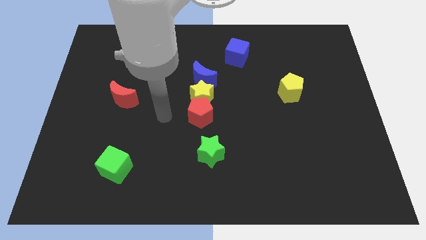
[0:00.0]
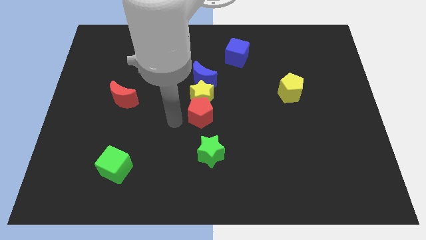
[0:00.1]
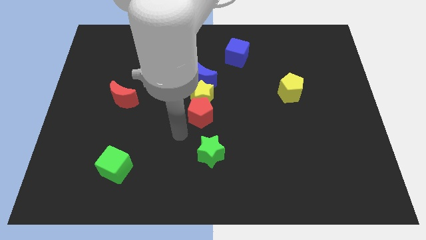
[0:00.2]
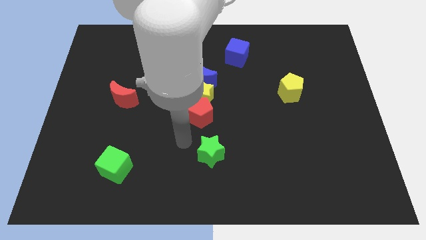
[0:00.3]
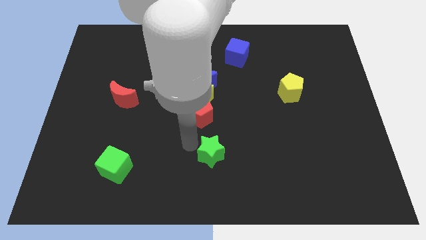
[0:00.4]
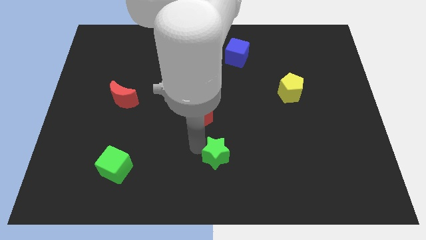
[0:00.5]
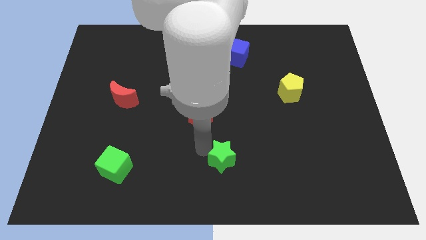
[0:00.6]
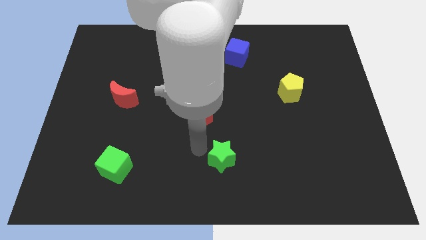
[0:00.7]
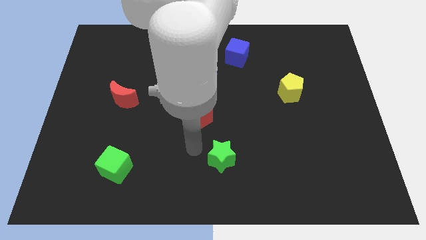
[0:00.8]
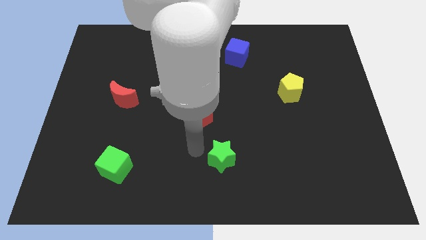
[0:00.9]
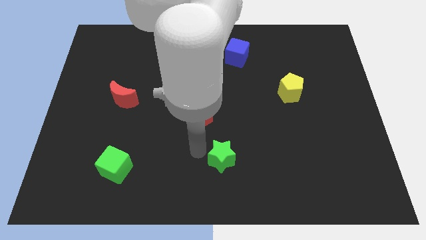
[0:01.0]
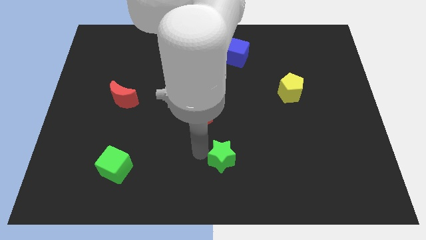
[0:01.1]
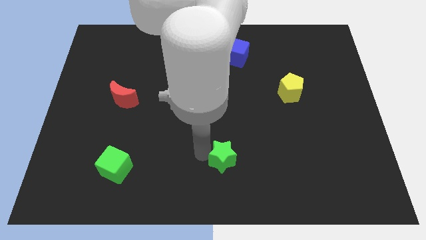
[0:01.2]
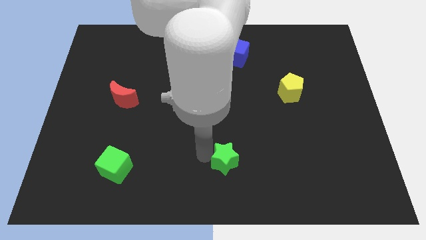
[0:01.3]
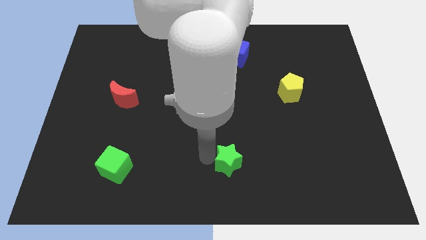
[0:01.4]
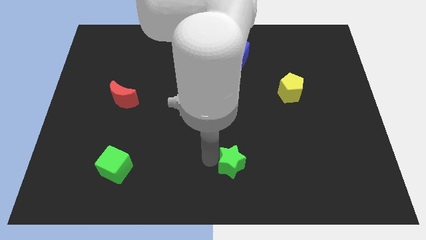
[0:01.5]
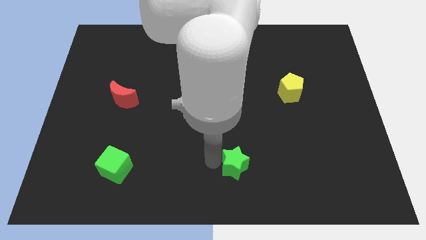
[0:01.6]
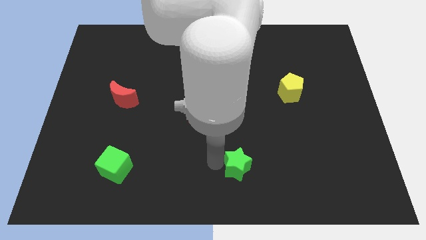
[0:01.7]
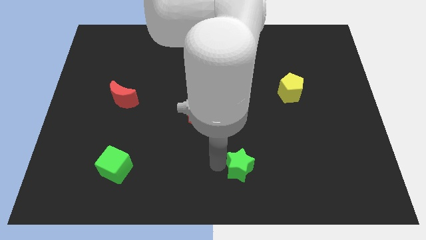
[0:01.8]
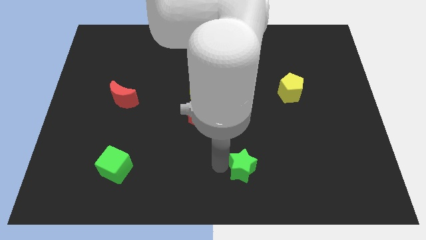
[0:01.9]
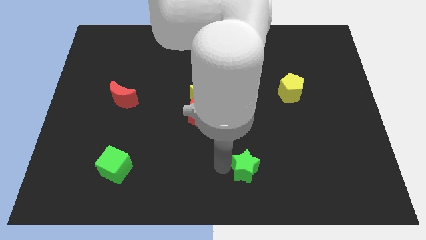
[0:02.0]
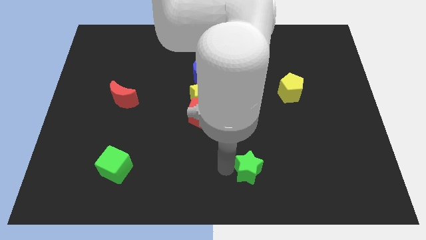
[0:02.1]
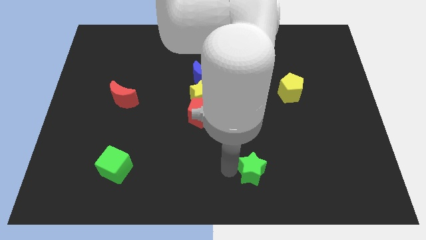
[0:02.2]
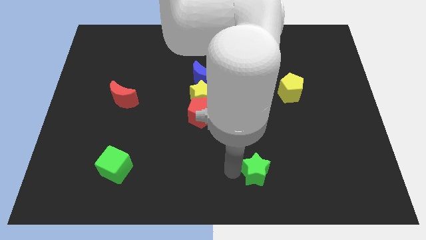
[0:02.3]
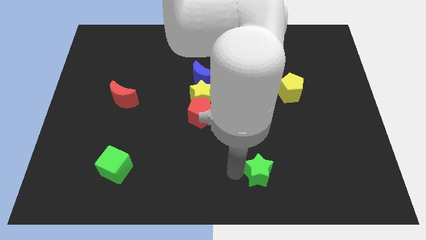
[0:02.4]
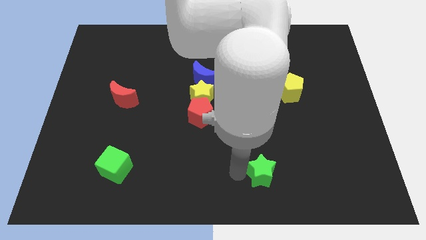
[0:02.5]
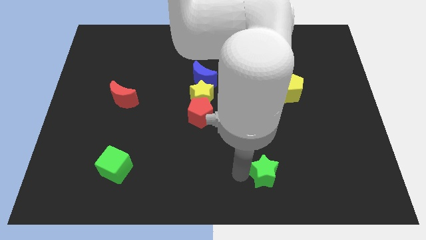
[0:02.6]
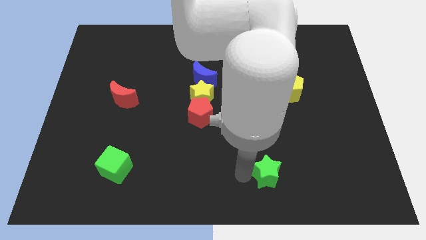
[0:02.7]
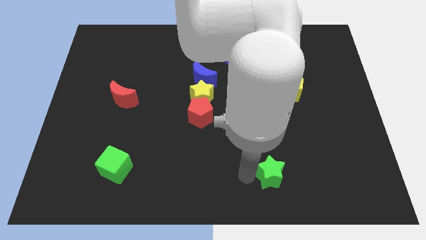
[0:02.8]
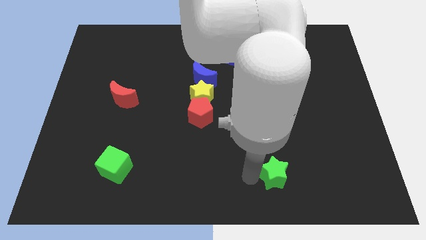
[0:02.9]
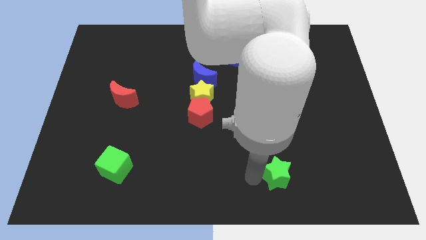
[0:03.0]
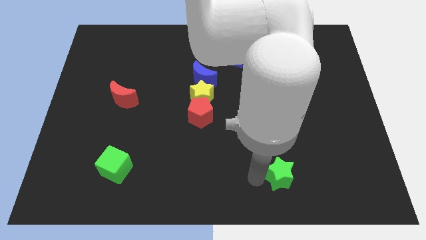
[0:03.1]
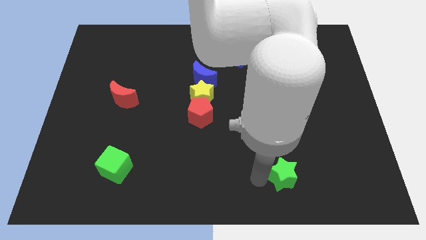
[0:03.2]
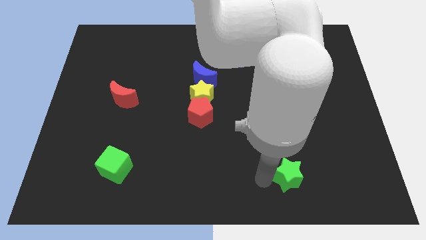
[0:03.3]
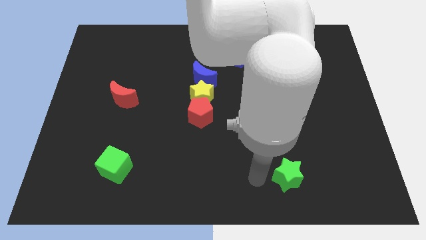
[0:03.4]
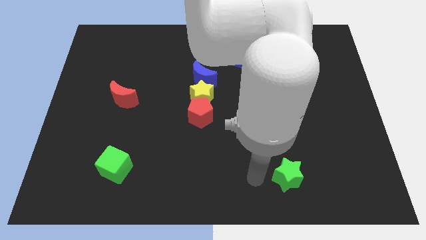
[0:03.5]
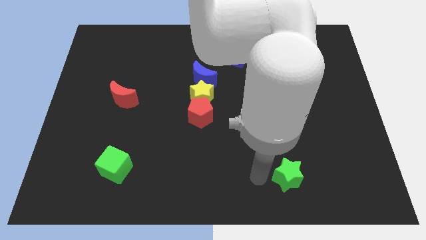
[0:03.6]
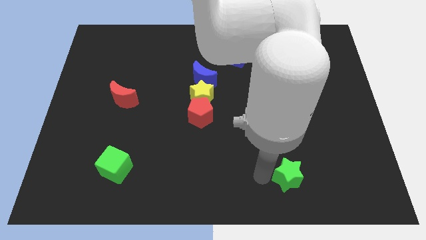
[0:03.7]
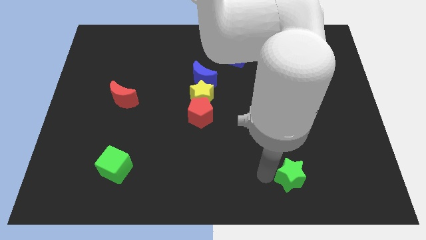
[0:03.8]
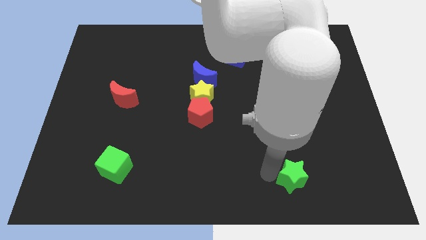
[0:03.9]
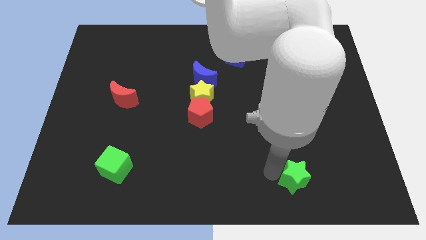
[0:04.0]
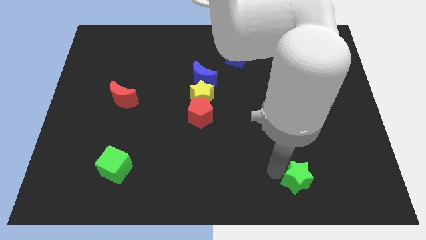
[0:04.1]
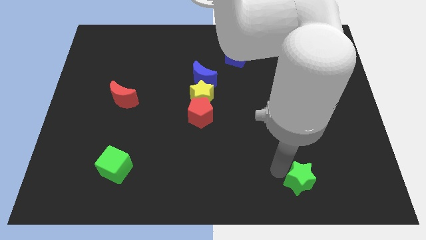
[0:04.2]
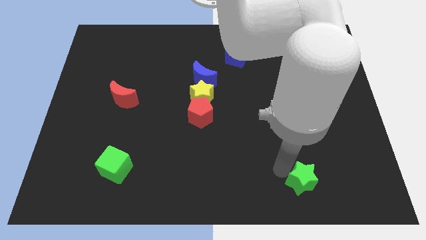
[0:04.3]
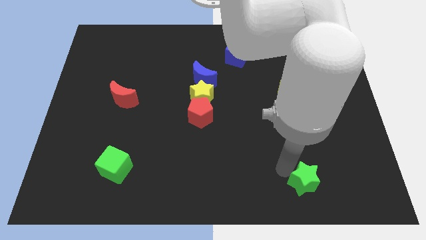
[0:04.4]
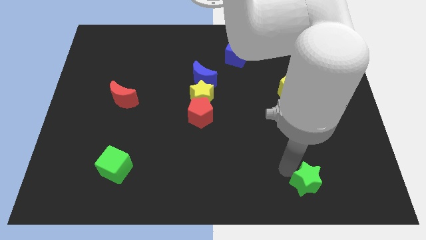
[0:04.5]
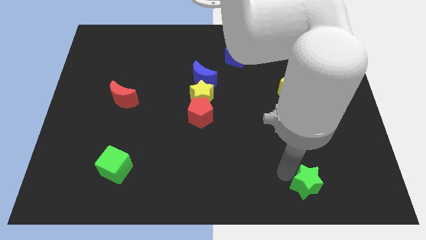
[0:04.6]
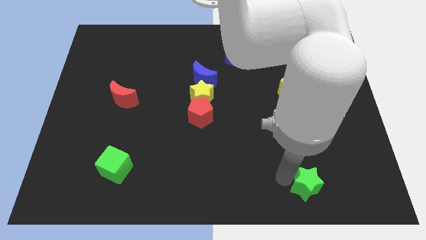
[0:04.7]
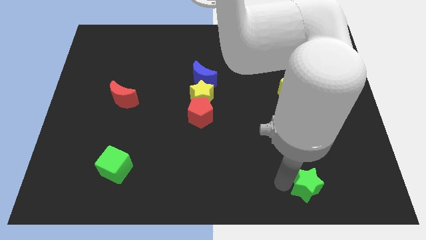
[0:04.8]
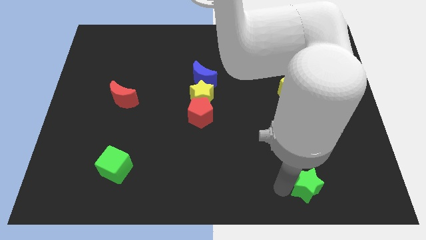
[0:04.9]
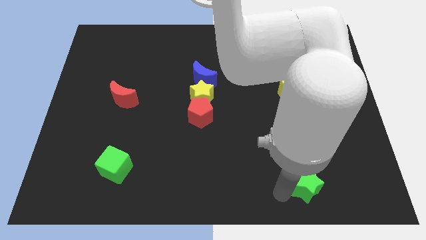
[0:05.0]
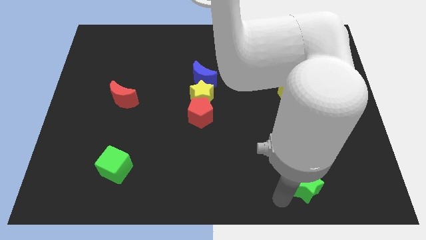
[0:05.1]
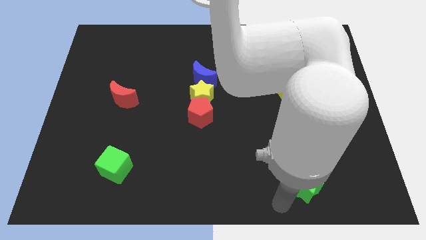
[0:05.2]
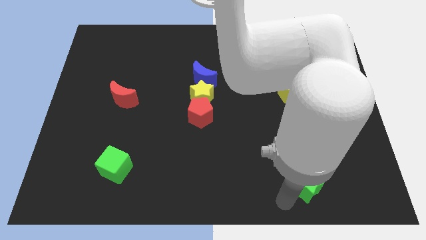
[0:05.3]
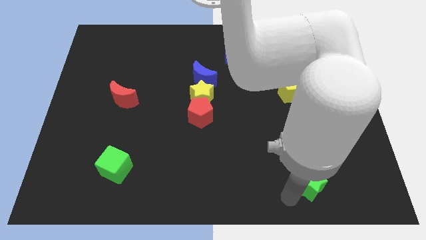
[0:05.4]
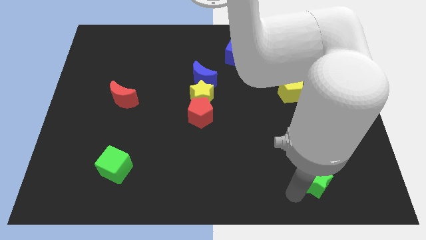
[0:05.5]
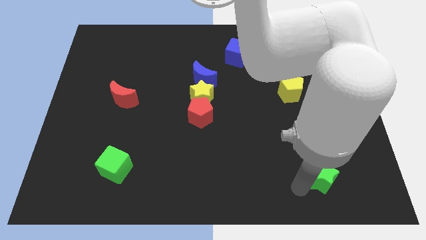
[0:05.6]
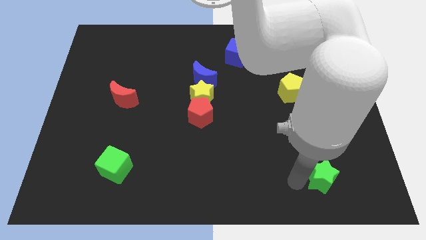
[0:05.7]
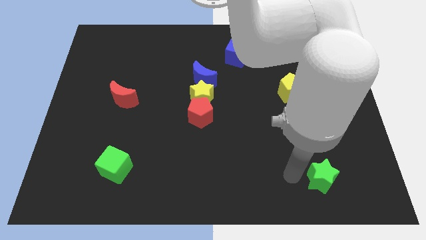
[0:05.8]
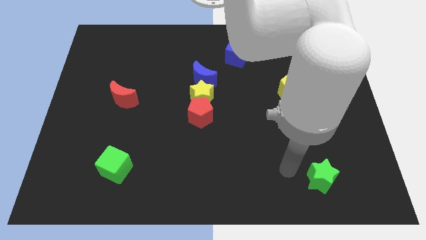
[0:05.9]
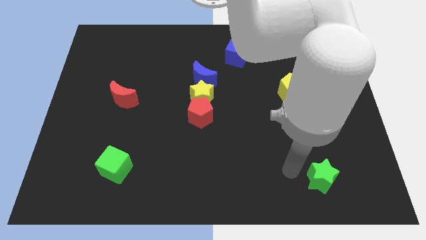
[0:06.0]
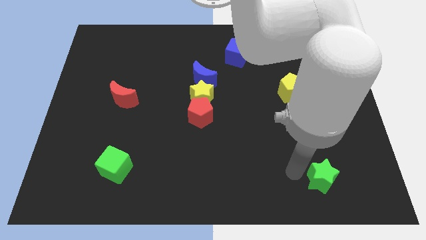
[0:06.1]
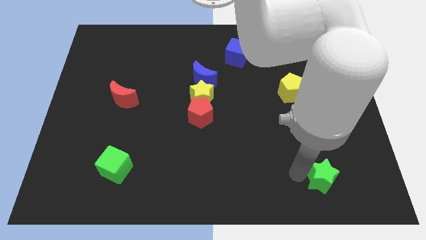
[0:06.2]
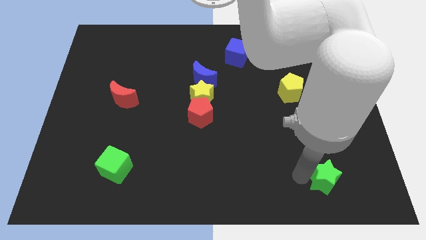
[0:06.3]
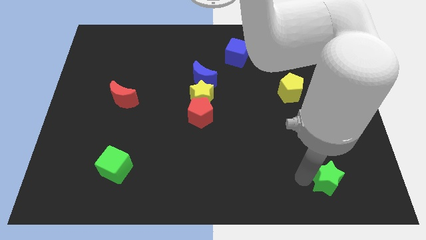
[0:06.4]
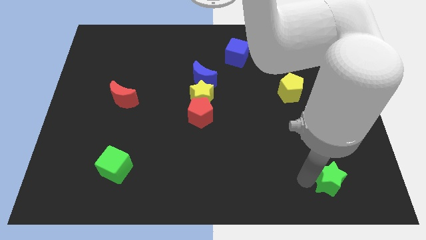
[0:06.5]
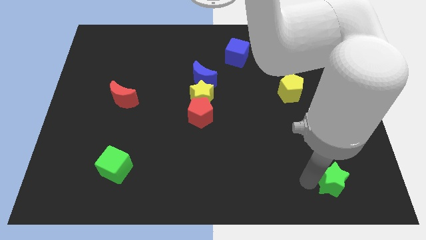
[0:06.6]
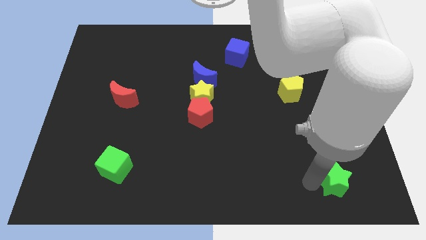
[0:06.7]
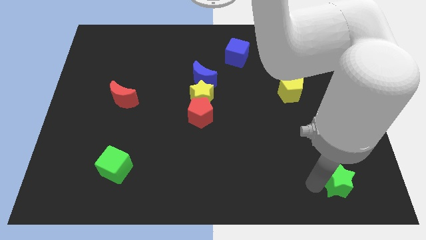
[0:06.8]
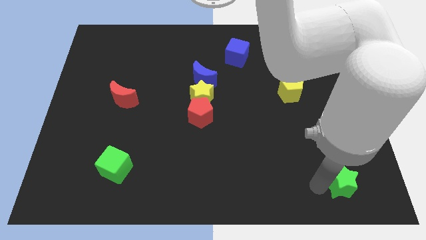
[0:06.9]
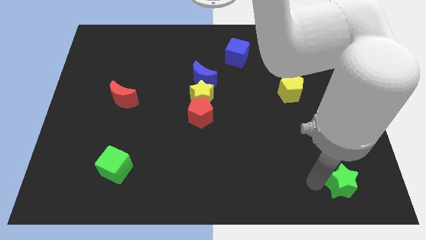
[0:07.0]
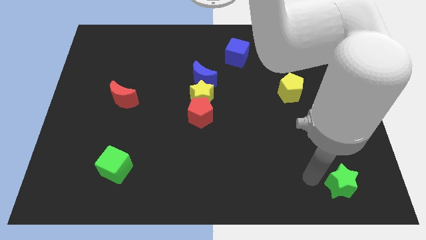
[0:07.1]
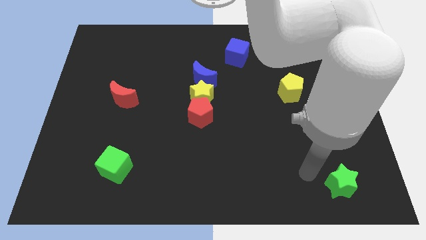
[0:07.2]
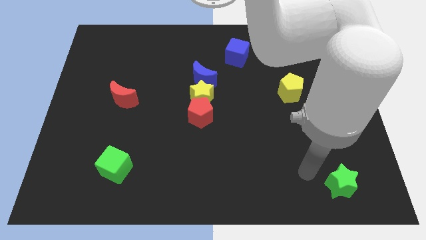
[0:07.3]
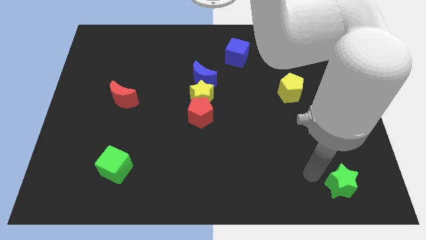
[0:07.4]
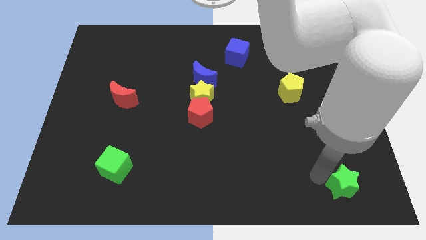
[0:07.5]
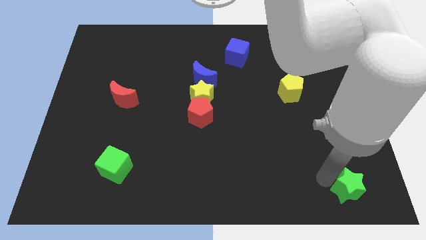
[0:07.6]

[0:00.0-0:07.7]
move the green star to the lower right corner

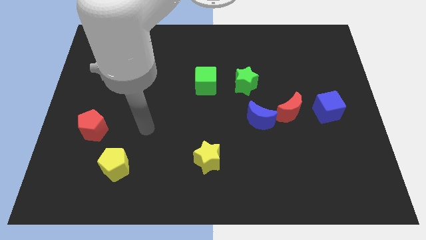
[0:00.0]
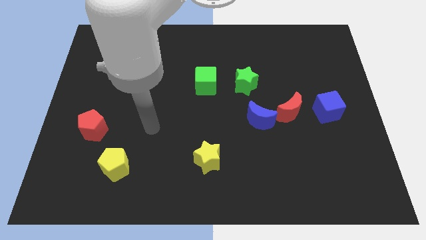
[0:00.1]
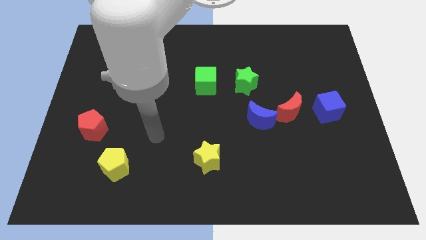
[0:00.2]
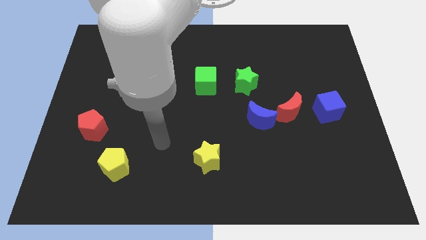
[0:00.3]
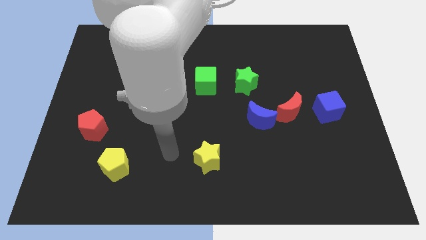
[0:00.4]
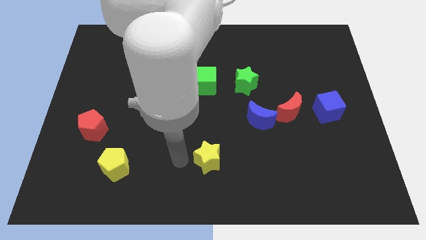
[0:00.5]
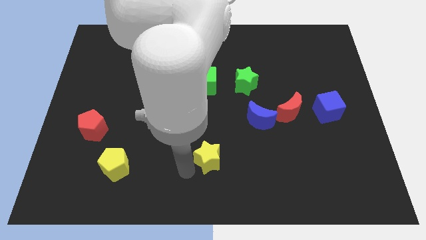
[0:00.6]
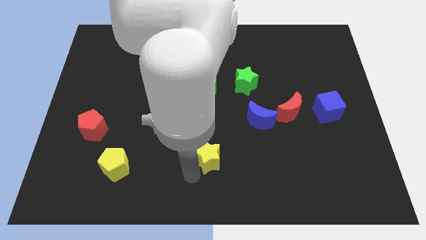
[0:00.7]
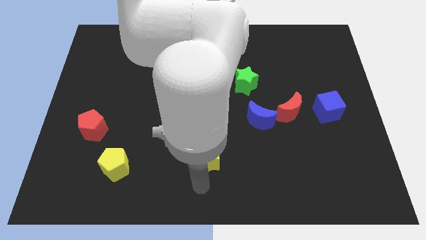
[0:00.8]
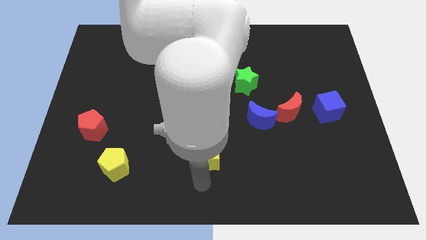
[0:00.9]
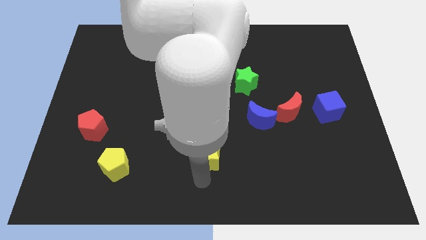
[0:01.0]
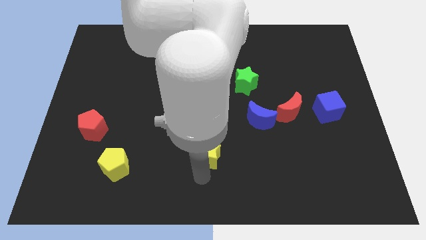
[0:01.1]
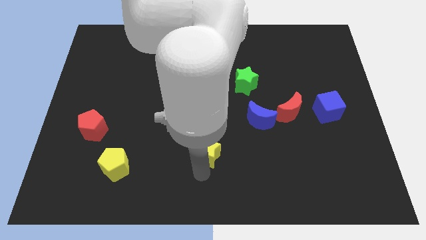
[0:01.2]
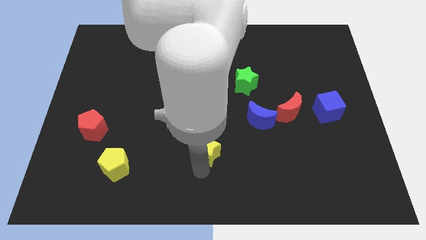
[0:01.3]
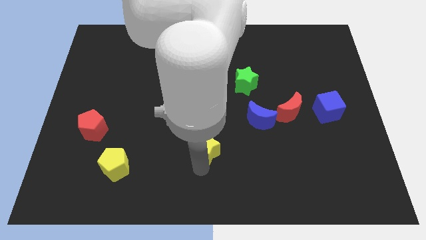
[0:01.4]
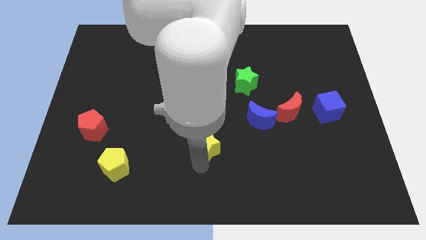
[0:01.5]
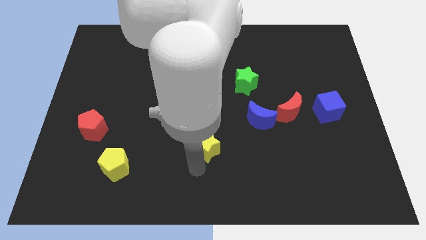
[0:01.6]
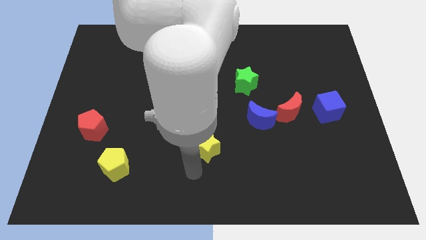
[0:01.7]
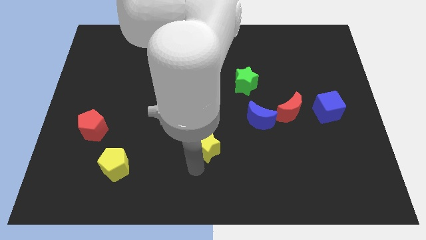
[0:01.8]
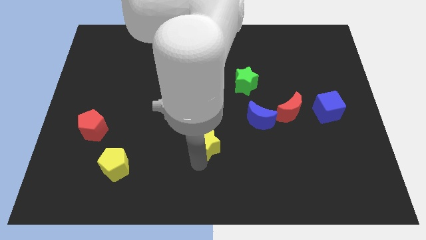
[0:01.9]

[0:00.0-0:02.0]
move the yellow star to the center
